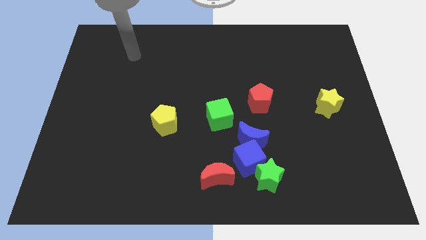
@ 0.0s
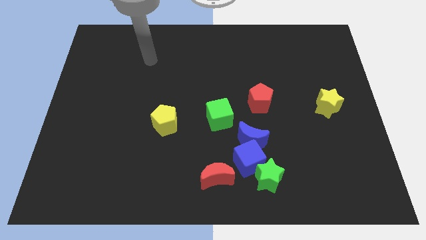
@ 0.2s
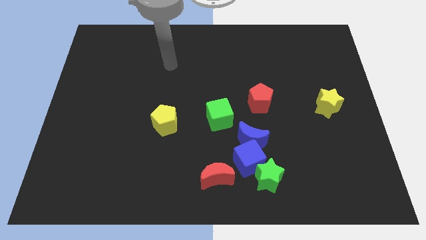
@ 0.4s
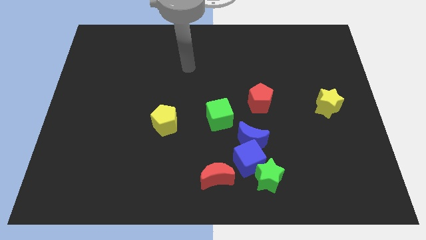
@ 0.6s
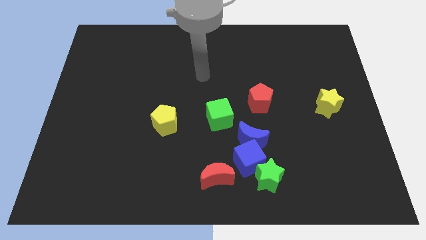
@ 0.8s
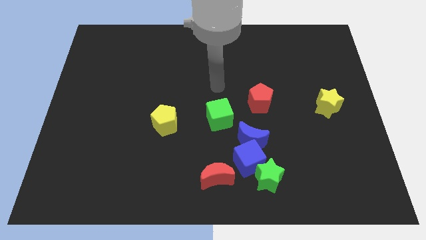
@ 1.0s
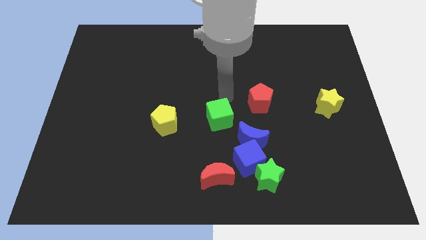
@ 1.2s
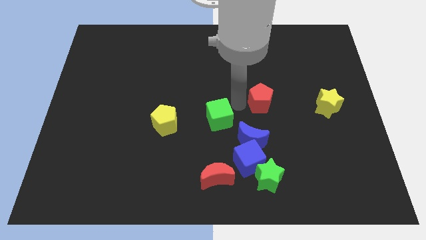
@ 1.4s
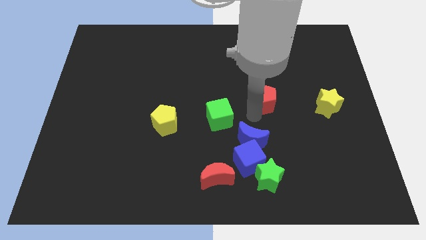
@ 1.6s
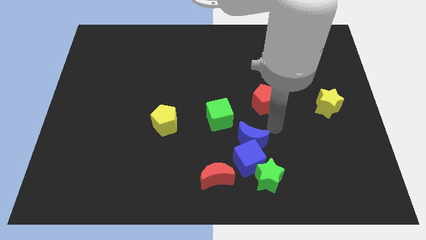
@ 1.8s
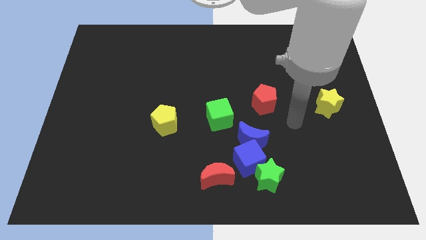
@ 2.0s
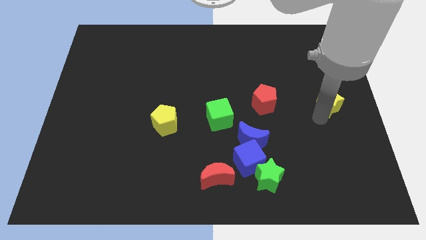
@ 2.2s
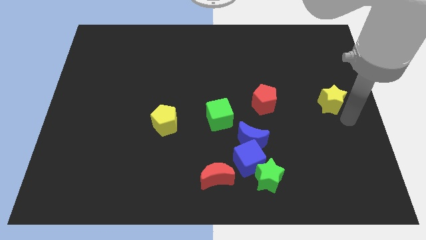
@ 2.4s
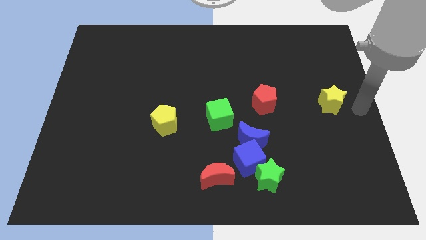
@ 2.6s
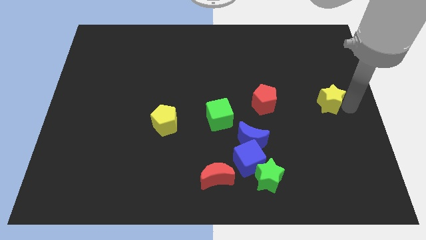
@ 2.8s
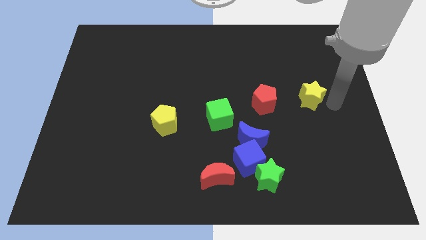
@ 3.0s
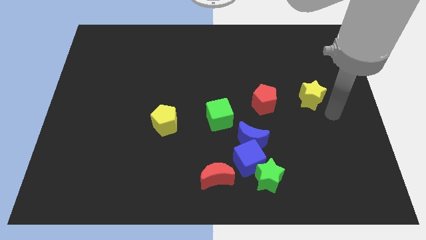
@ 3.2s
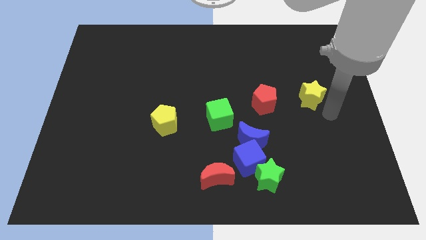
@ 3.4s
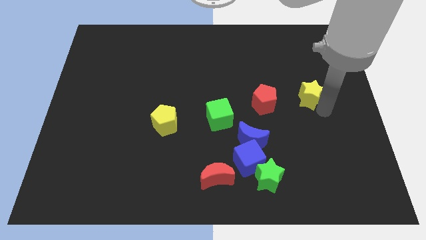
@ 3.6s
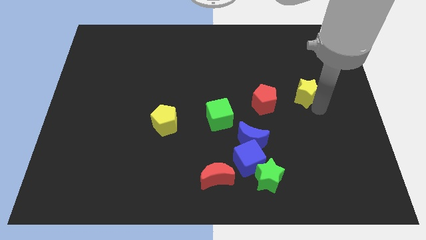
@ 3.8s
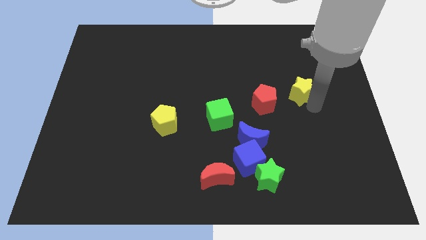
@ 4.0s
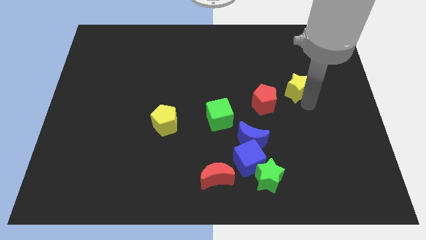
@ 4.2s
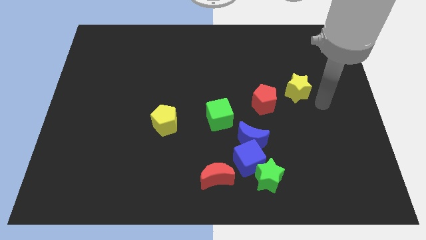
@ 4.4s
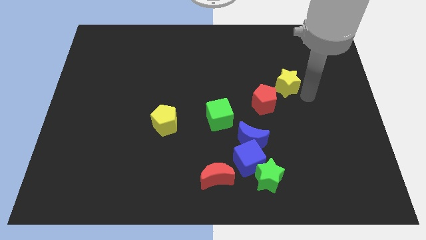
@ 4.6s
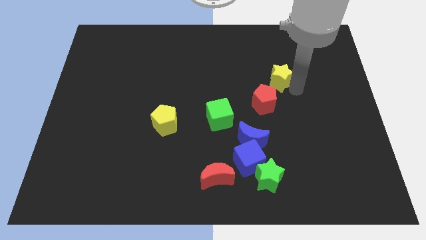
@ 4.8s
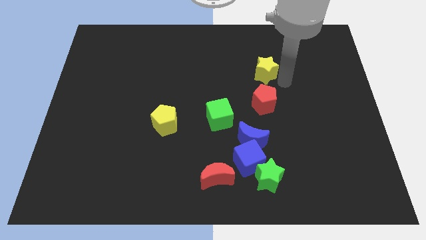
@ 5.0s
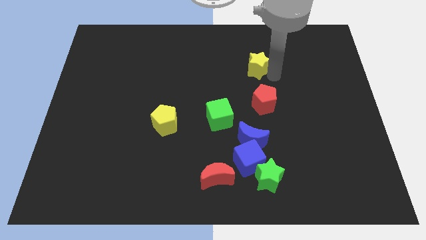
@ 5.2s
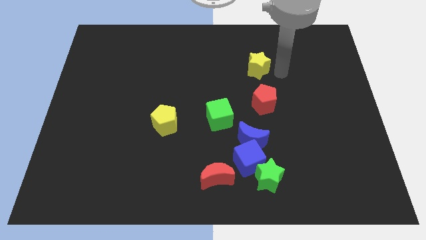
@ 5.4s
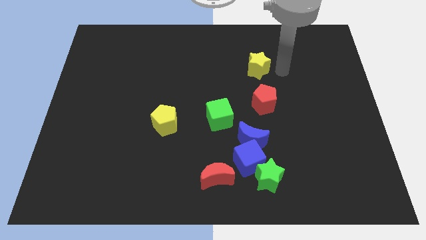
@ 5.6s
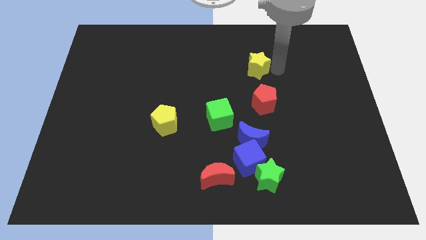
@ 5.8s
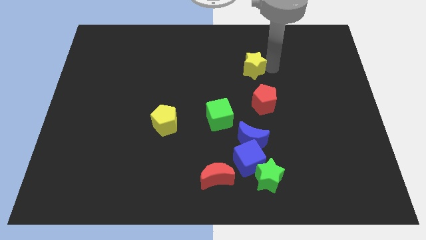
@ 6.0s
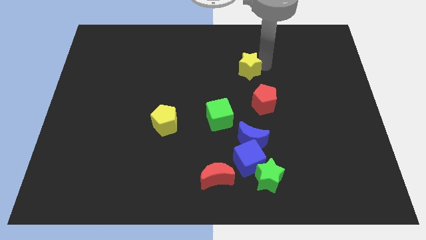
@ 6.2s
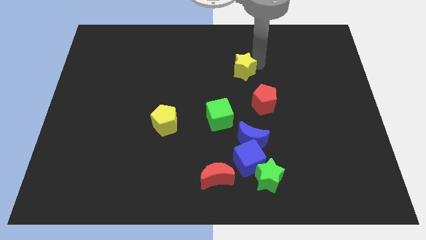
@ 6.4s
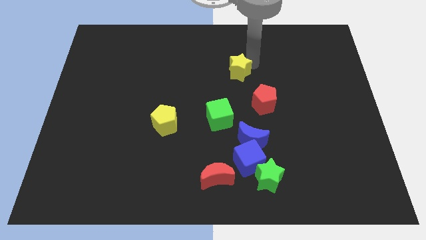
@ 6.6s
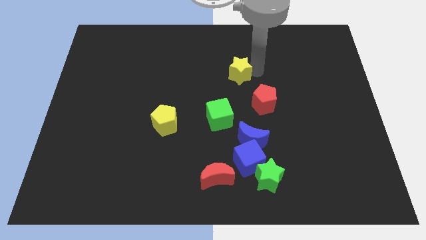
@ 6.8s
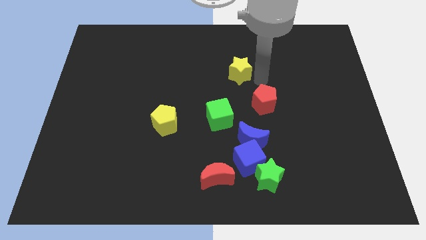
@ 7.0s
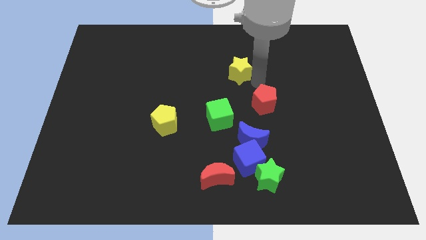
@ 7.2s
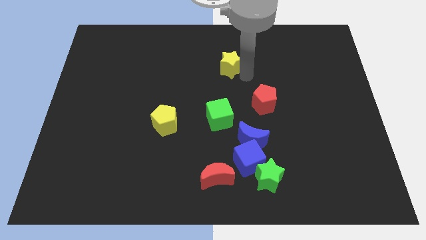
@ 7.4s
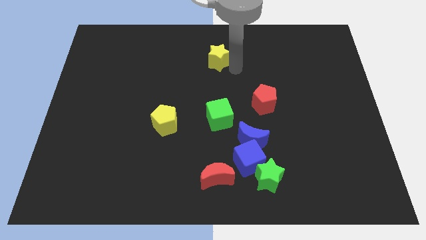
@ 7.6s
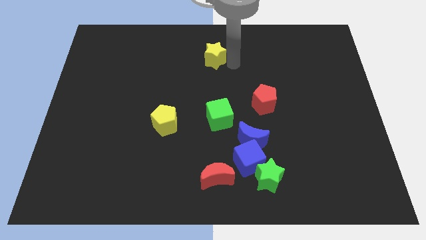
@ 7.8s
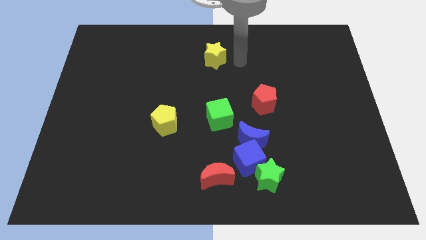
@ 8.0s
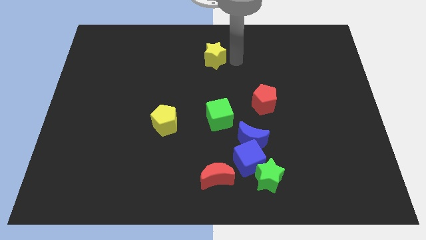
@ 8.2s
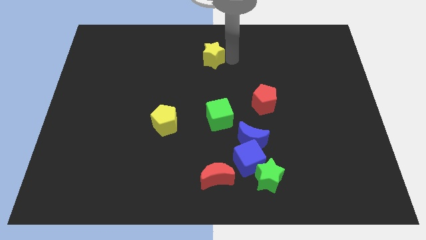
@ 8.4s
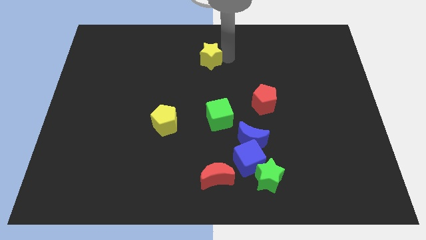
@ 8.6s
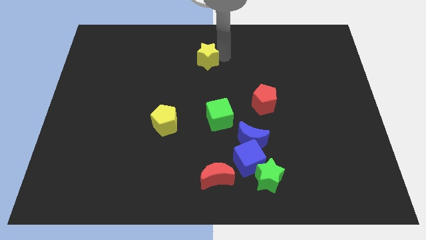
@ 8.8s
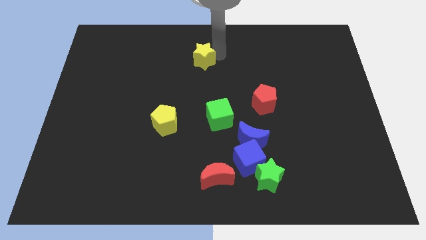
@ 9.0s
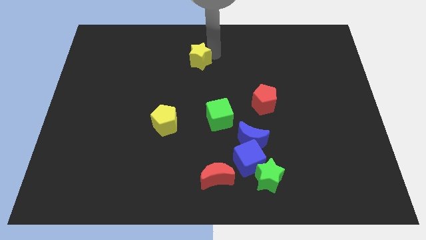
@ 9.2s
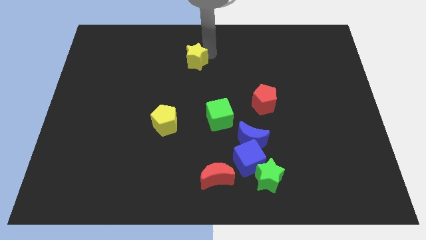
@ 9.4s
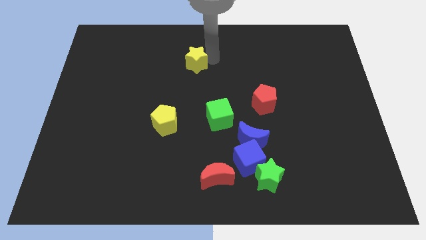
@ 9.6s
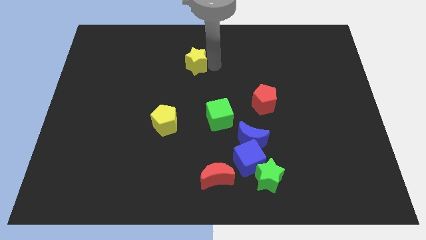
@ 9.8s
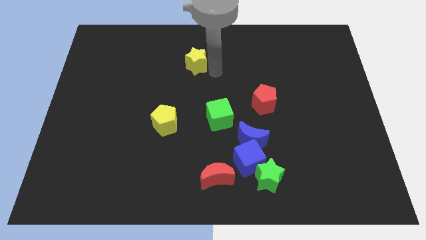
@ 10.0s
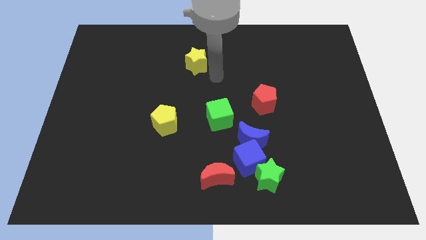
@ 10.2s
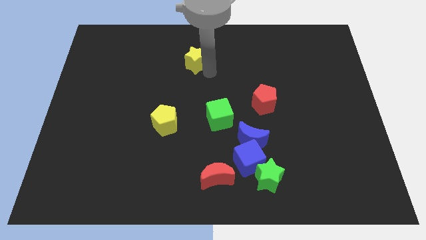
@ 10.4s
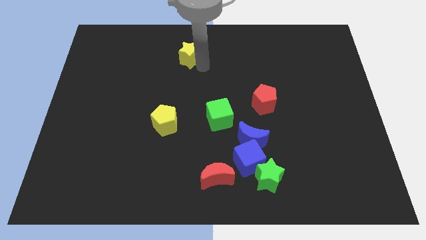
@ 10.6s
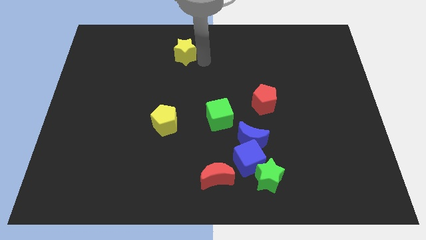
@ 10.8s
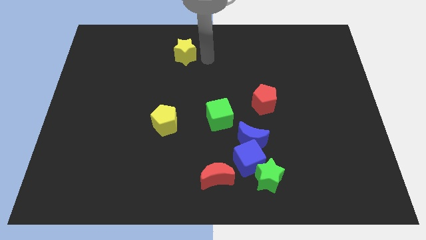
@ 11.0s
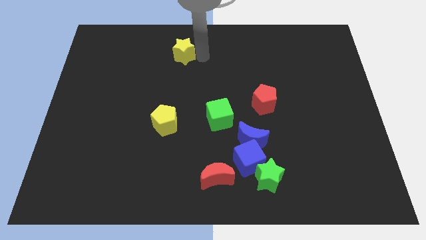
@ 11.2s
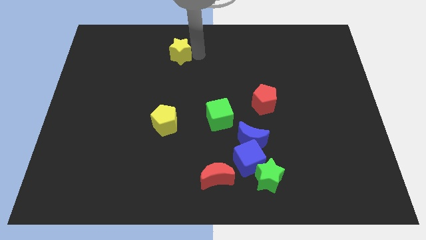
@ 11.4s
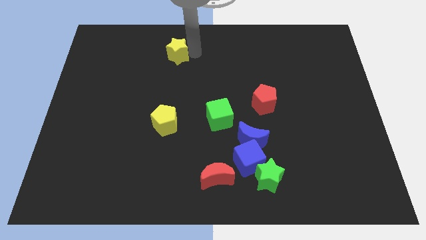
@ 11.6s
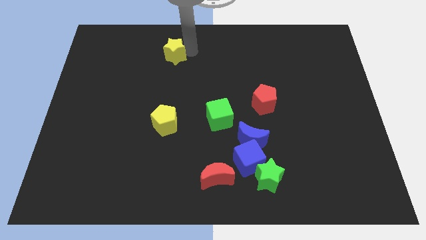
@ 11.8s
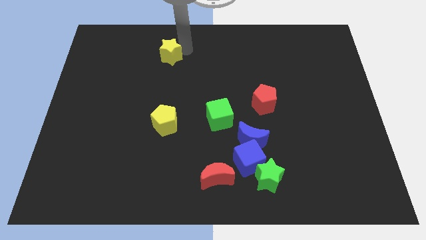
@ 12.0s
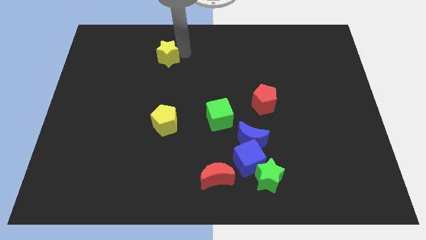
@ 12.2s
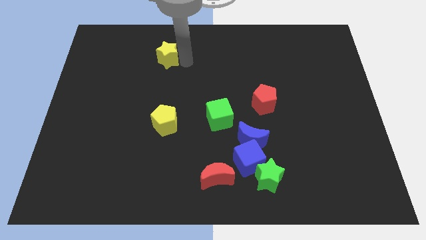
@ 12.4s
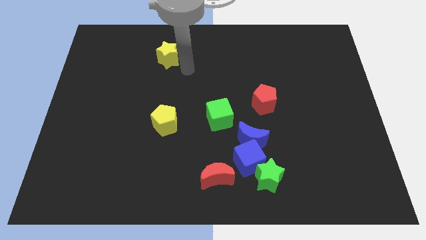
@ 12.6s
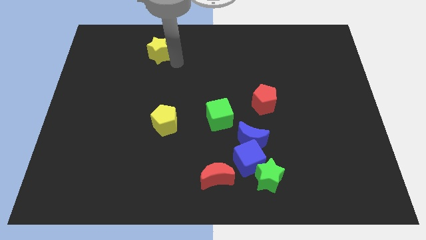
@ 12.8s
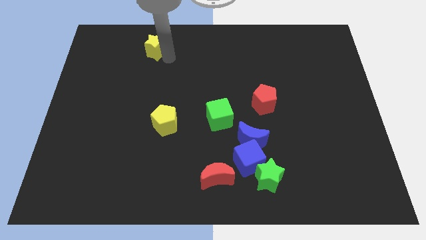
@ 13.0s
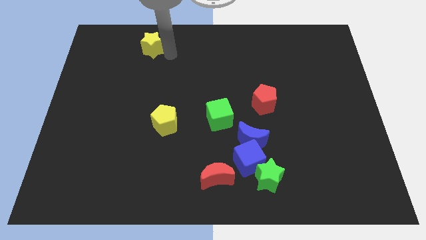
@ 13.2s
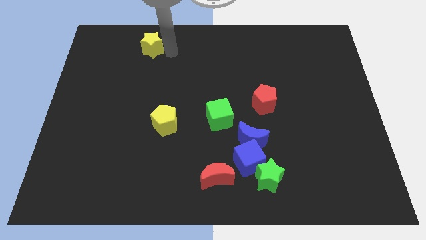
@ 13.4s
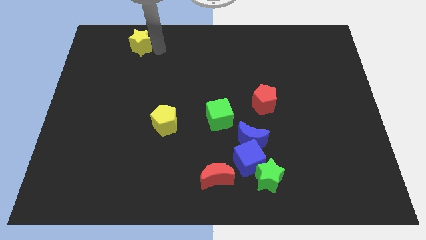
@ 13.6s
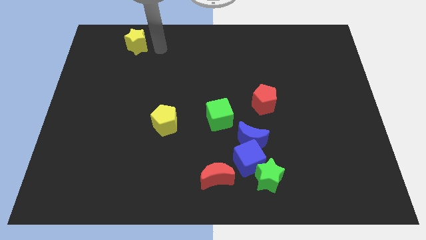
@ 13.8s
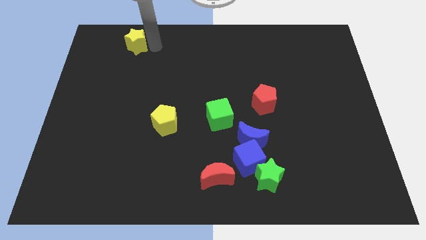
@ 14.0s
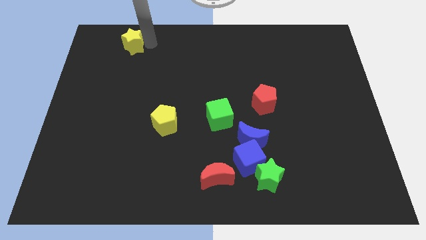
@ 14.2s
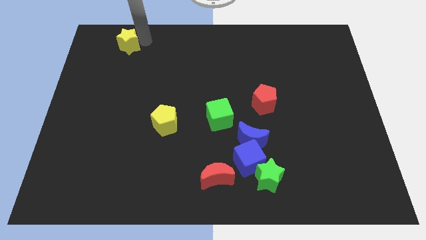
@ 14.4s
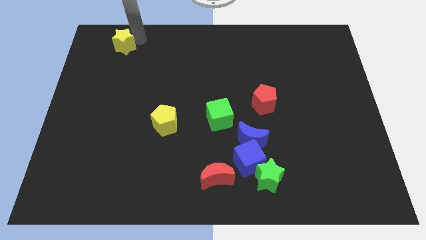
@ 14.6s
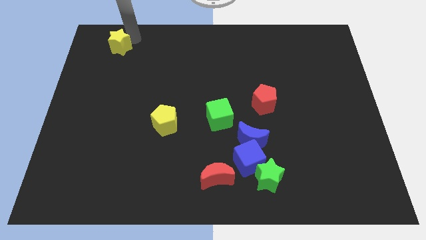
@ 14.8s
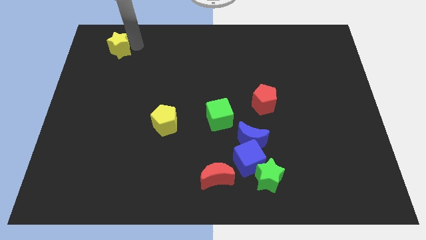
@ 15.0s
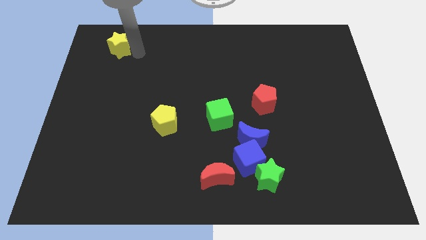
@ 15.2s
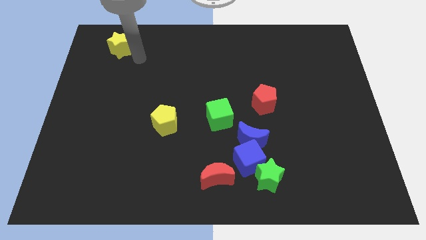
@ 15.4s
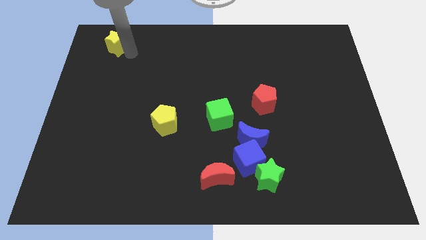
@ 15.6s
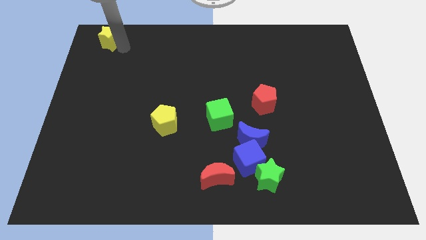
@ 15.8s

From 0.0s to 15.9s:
slide the yellow star to the top left corner
